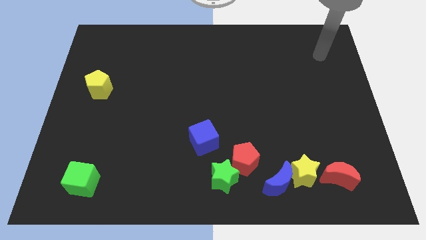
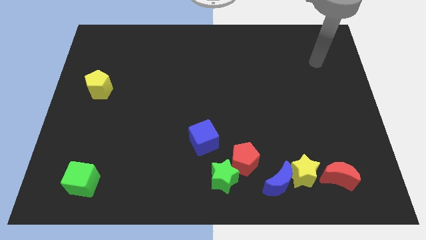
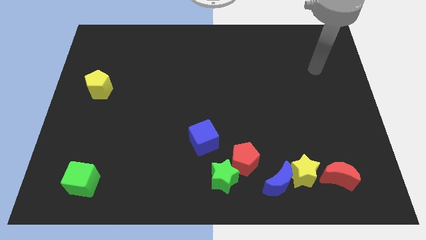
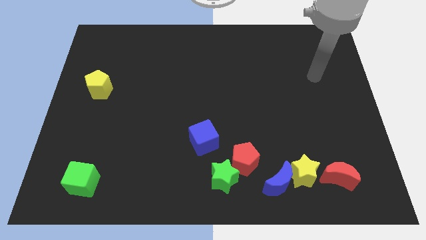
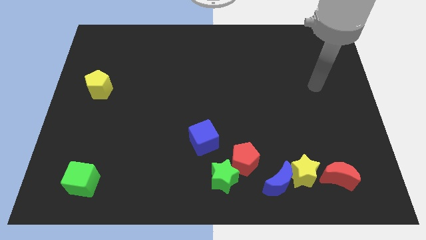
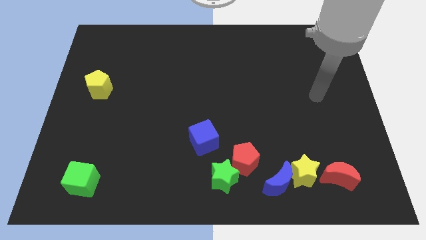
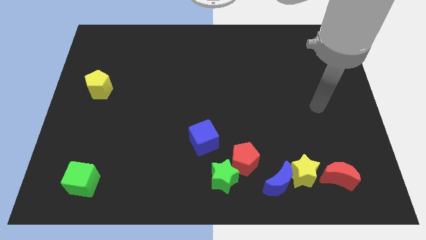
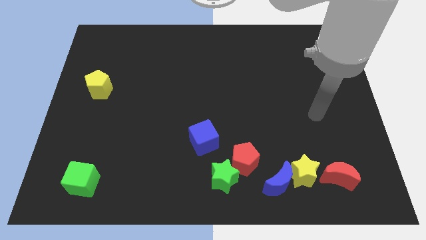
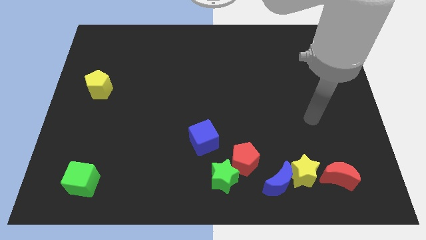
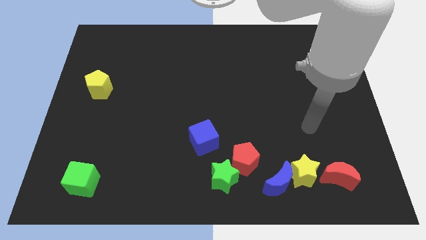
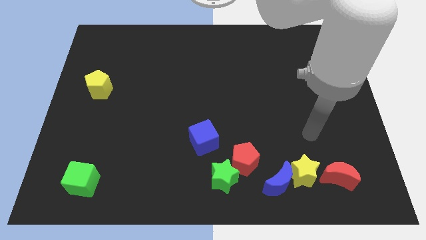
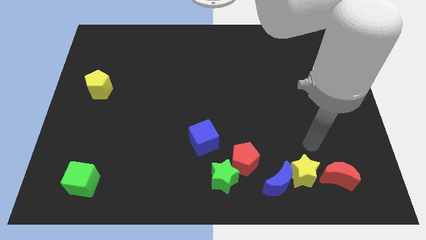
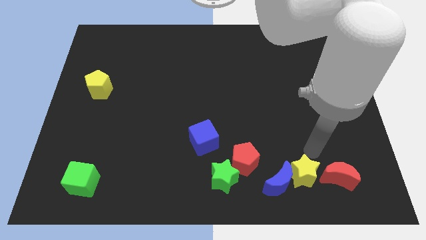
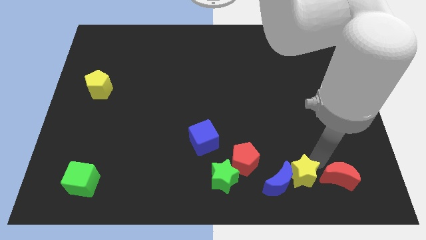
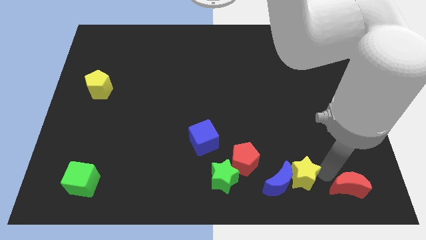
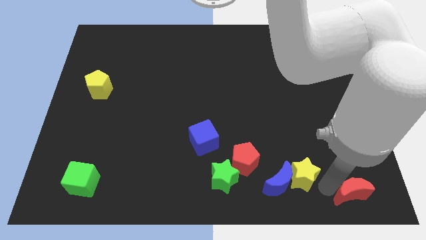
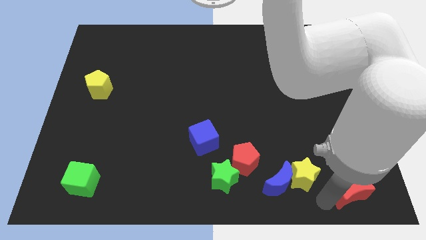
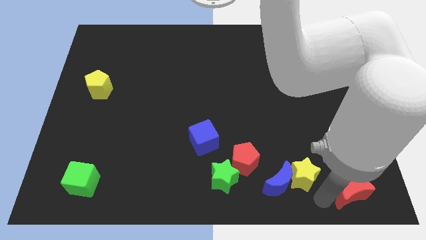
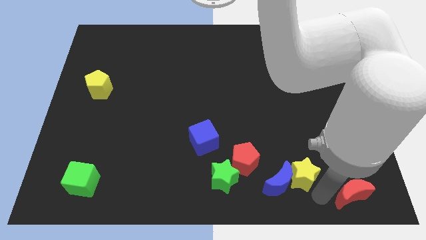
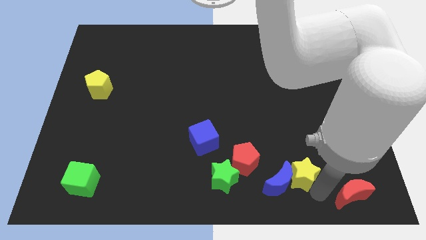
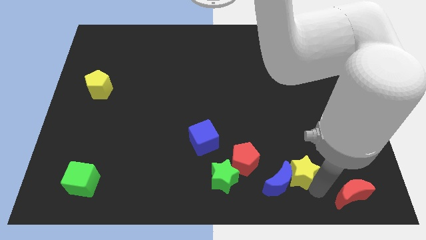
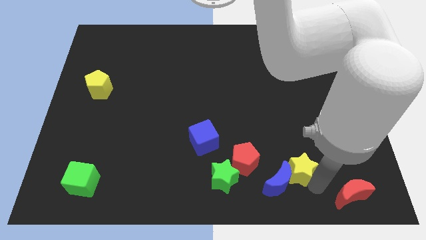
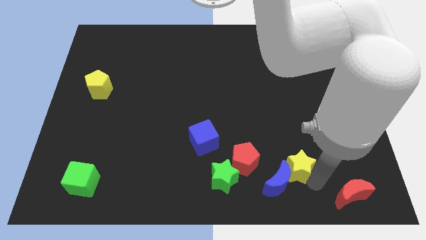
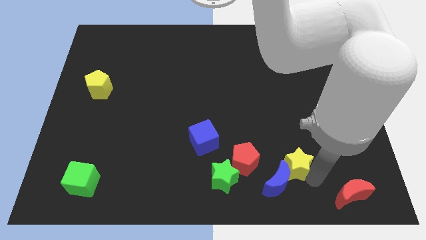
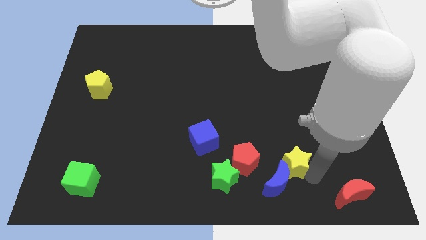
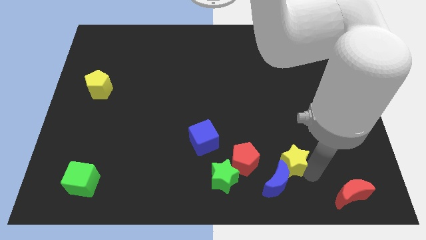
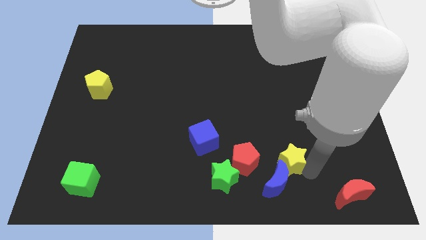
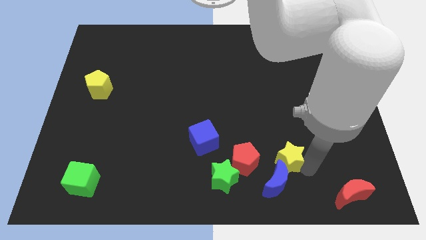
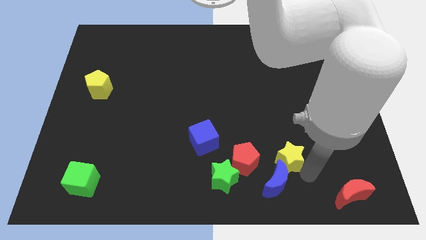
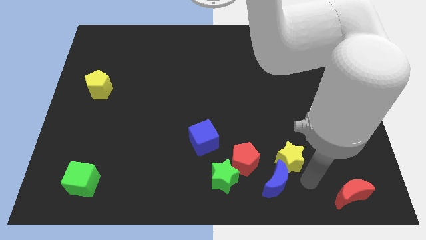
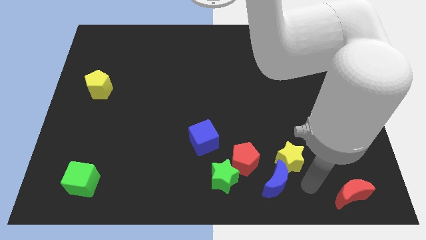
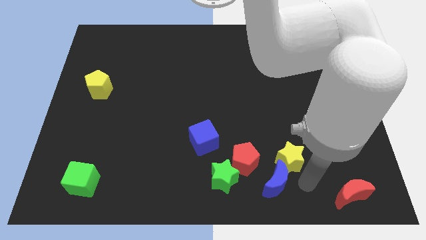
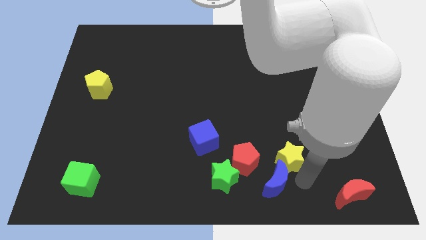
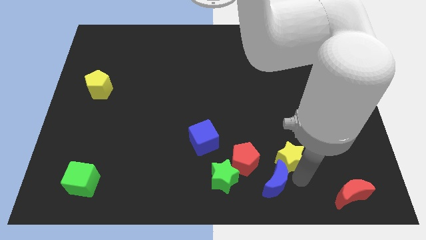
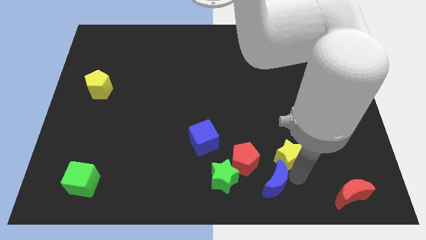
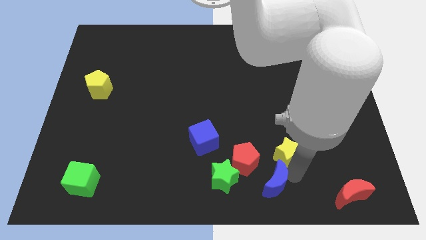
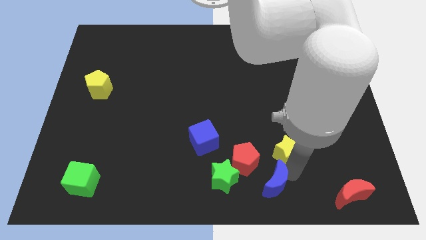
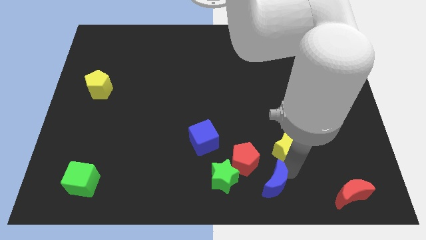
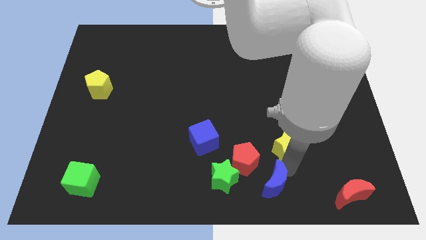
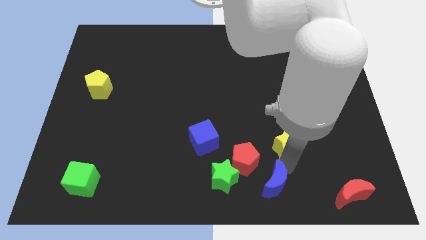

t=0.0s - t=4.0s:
move the yellow star away from the blue moon and red moon

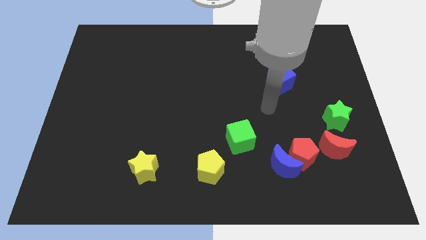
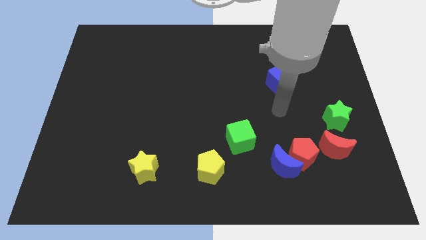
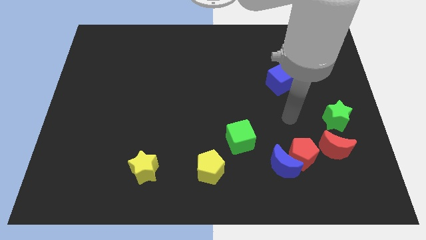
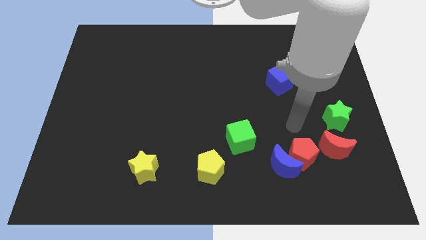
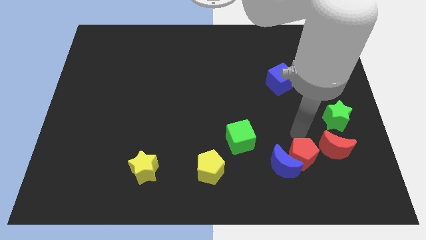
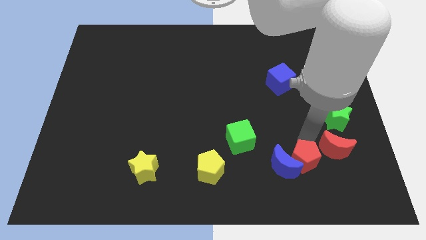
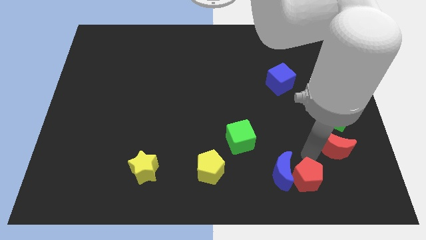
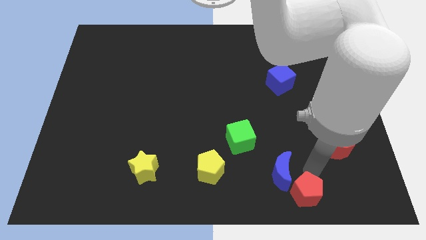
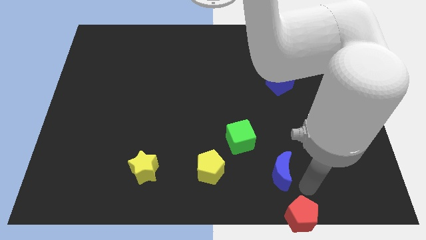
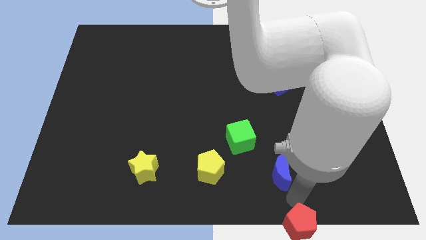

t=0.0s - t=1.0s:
pull the blue moon apart from the red pentagon

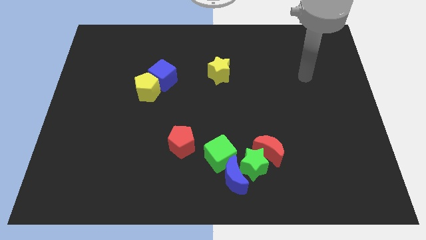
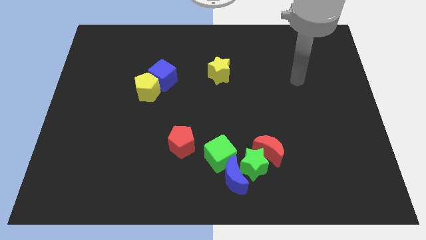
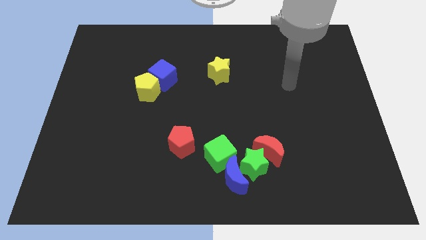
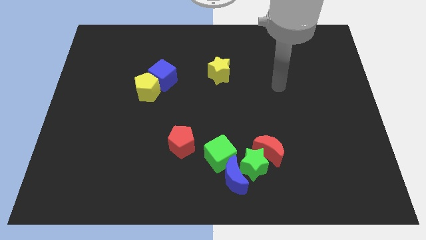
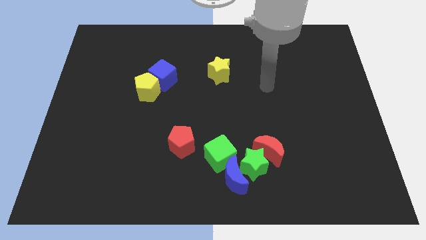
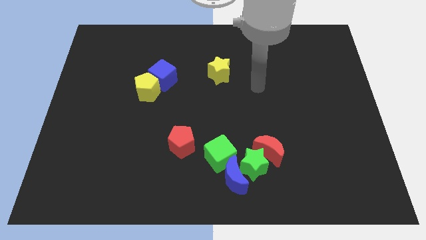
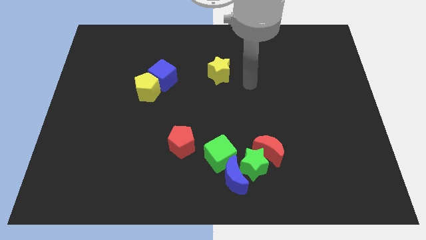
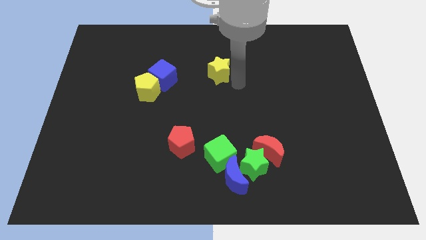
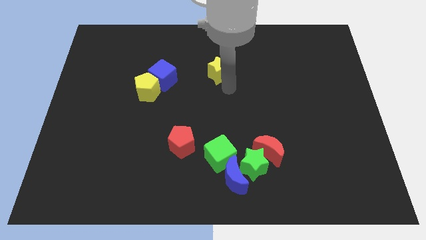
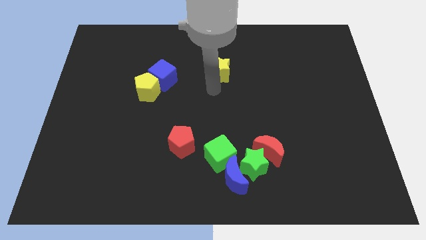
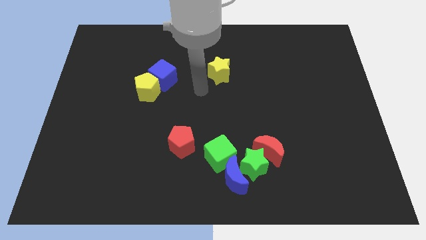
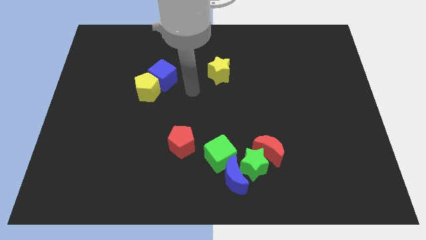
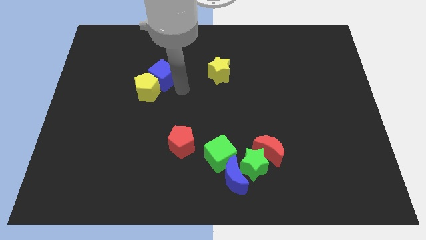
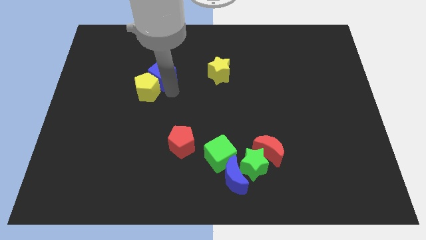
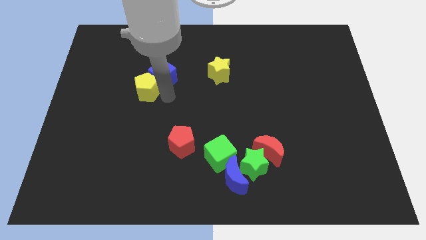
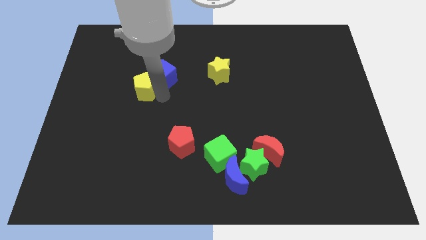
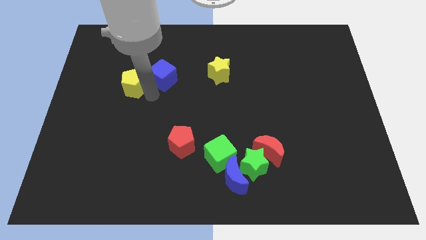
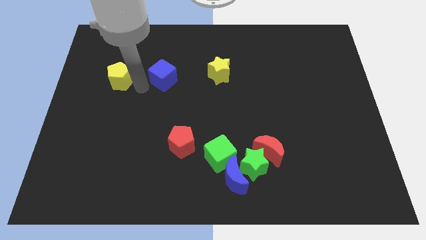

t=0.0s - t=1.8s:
separate the blue cube from the yellow pentagon

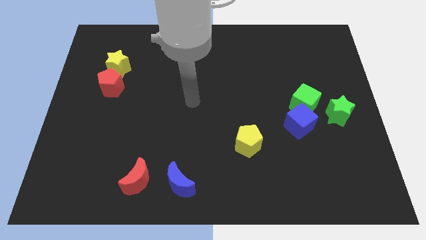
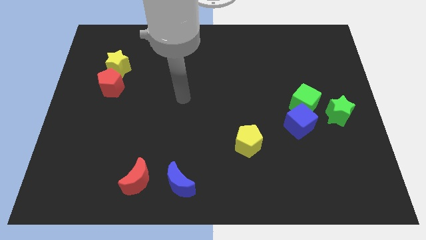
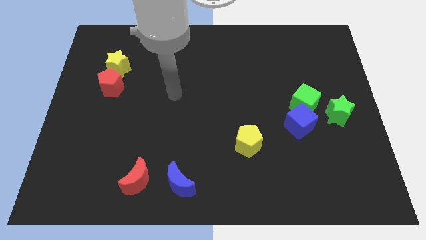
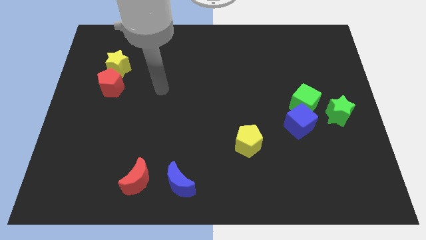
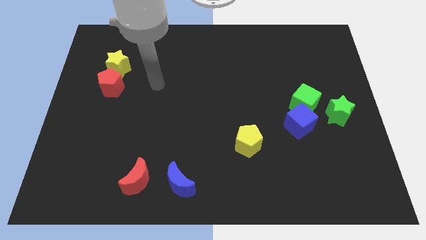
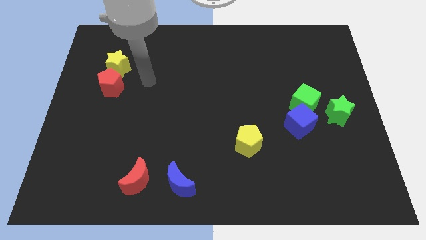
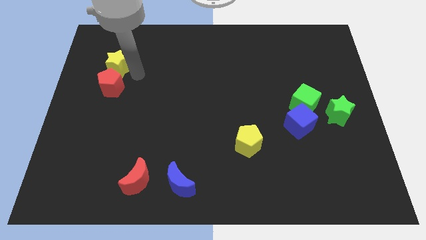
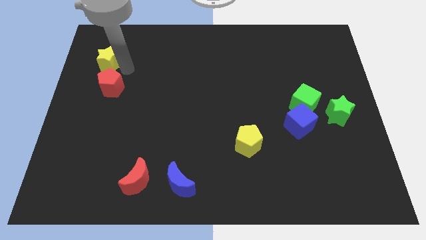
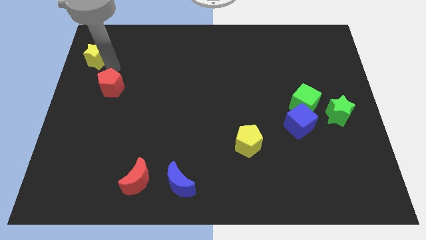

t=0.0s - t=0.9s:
pull the red pentagon apart from the yellow star

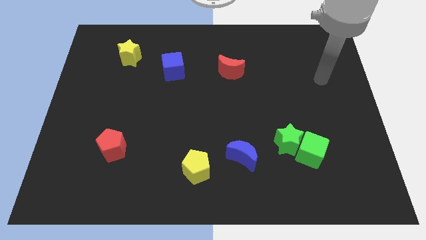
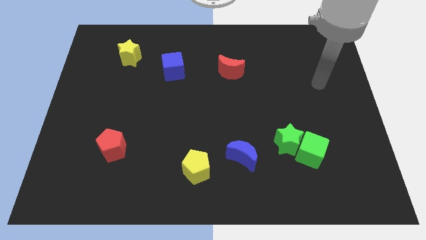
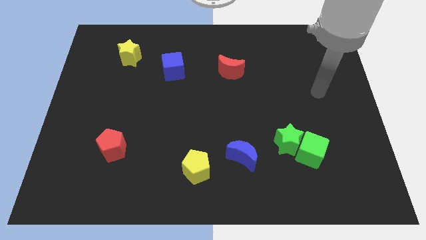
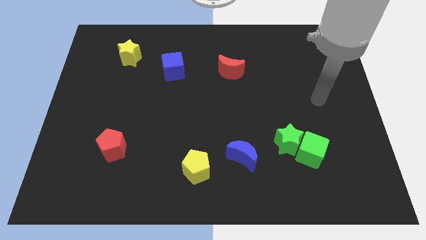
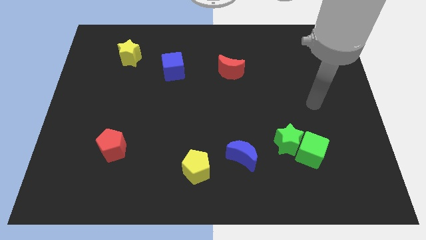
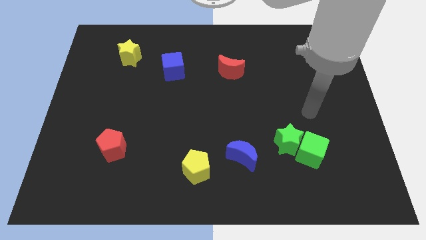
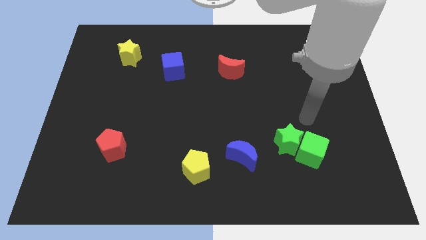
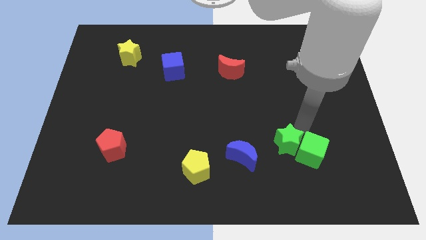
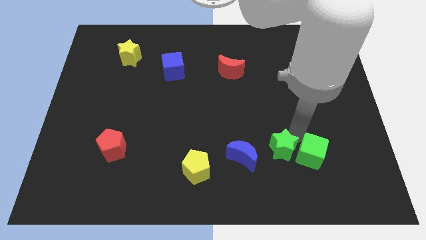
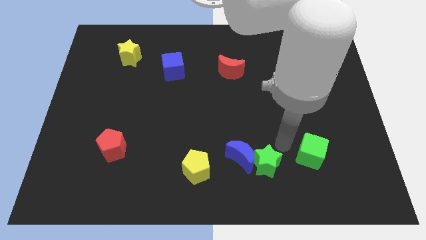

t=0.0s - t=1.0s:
separate the green cube from the green star

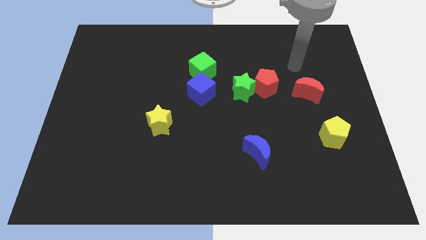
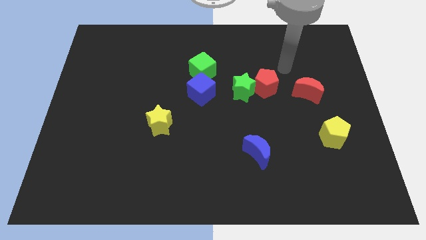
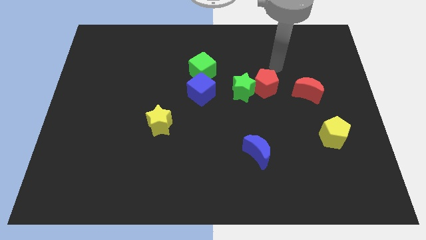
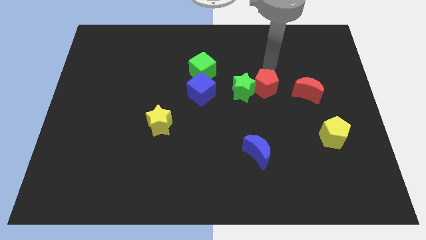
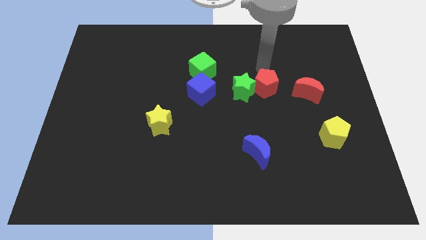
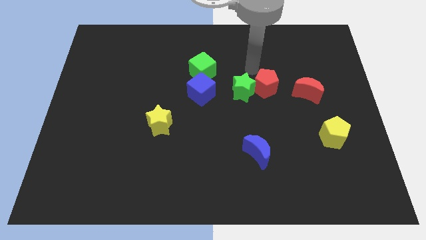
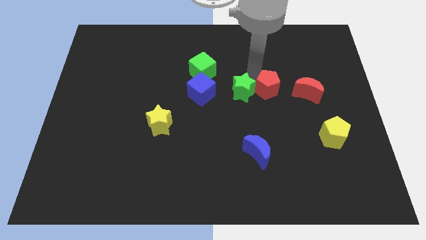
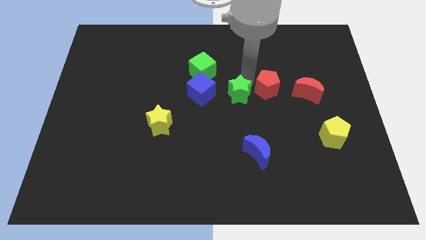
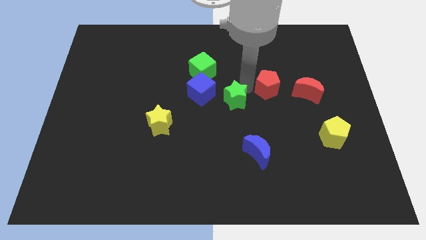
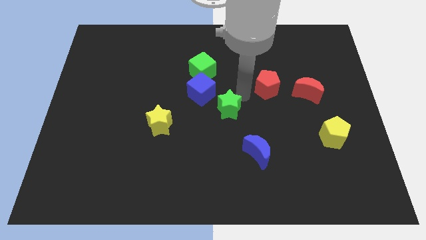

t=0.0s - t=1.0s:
pull the red pentagon apart from the green star
